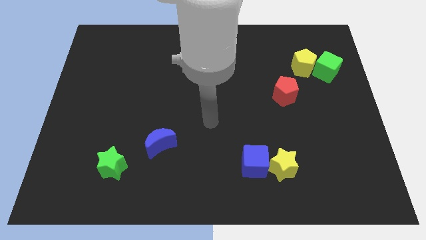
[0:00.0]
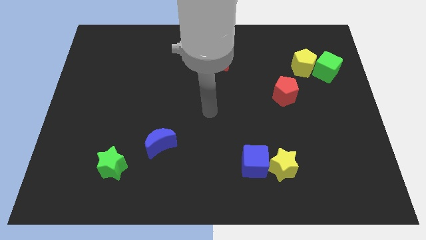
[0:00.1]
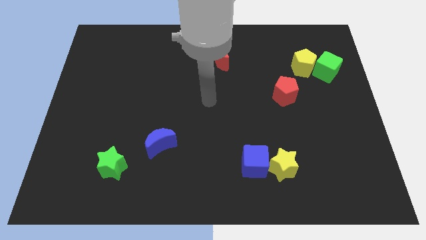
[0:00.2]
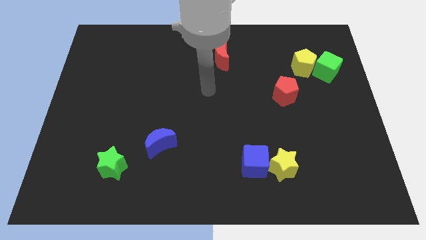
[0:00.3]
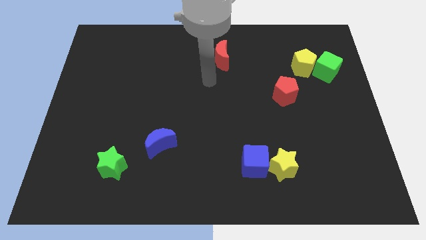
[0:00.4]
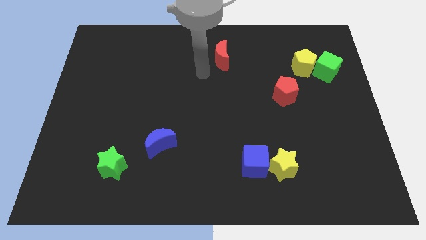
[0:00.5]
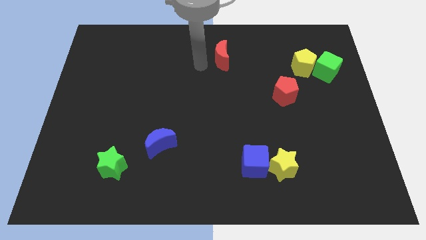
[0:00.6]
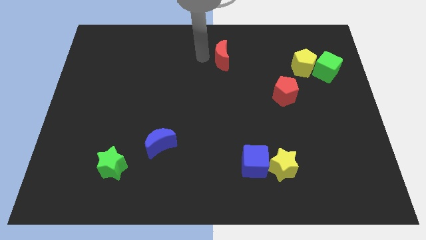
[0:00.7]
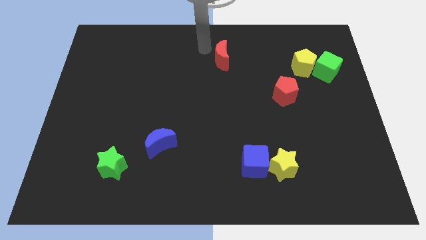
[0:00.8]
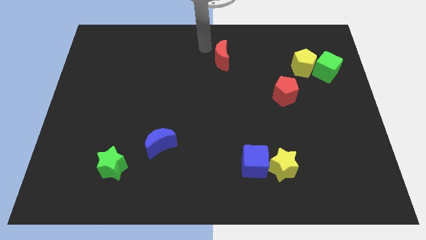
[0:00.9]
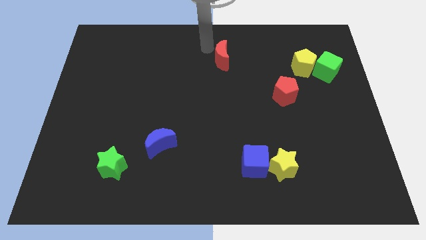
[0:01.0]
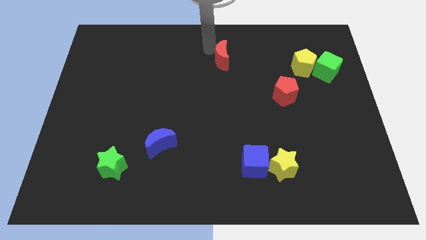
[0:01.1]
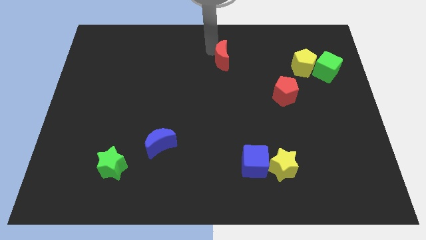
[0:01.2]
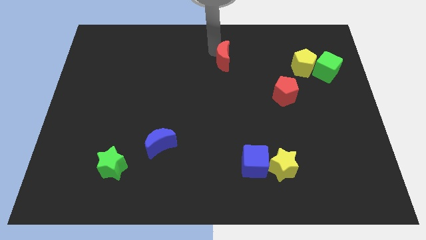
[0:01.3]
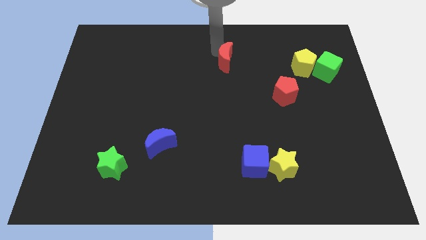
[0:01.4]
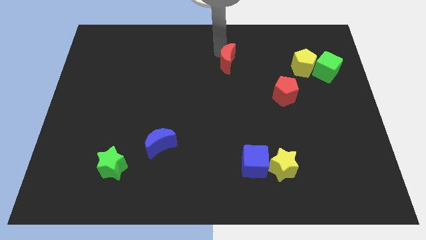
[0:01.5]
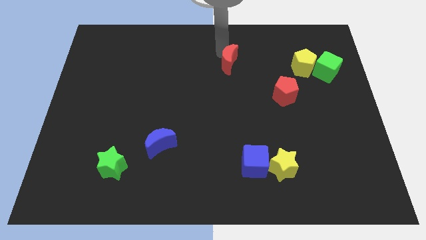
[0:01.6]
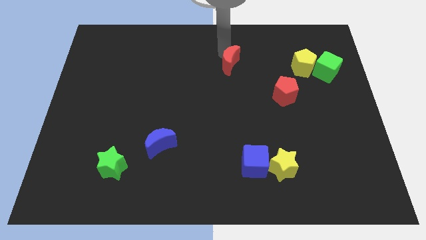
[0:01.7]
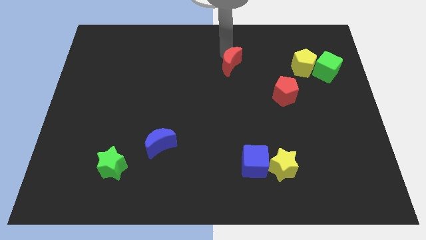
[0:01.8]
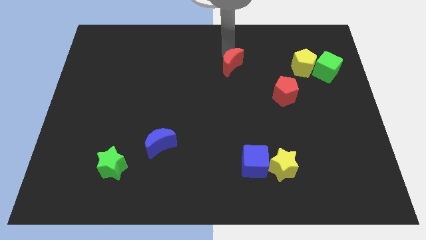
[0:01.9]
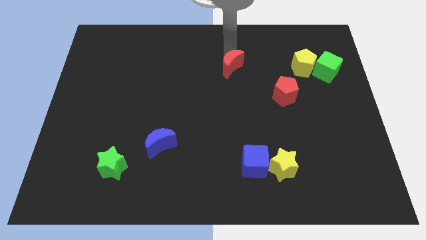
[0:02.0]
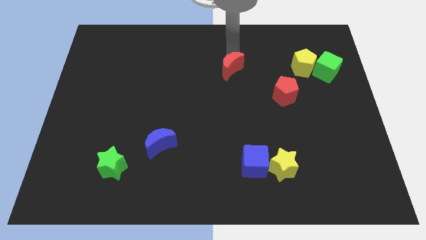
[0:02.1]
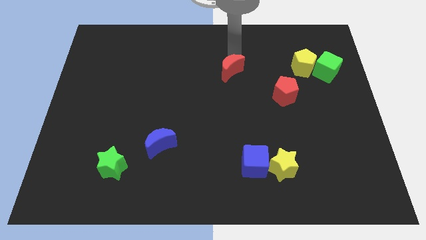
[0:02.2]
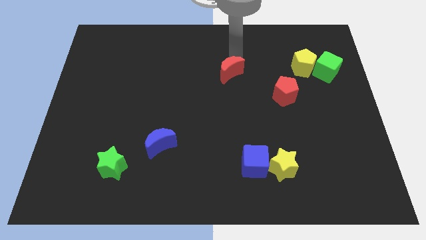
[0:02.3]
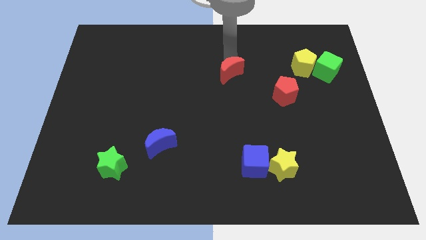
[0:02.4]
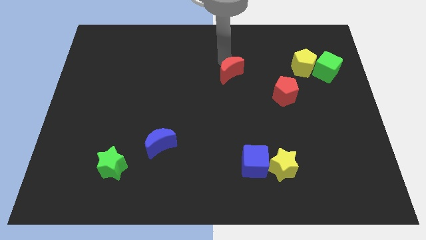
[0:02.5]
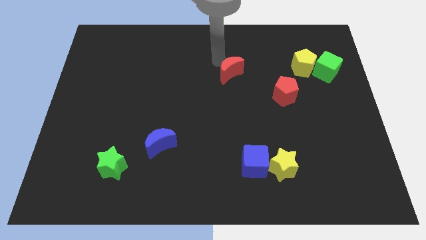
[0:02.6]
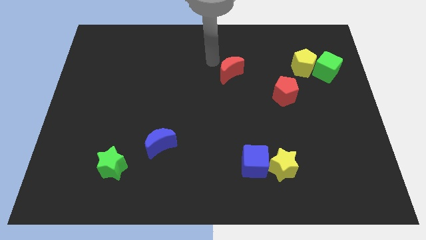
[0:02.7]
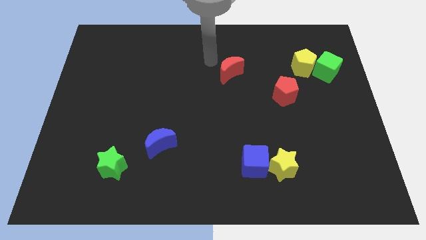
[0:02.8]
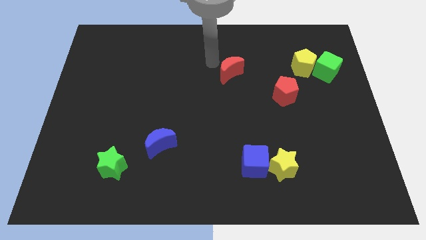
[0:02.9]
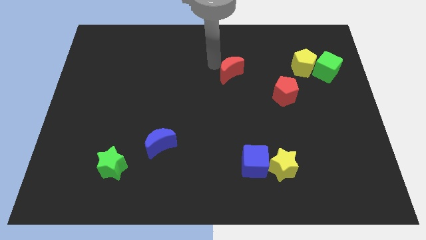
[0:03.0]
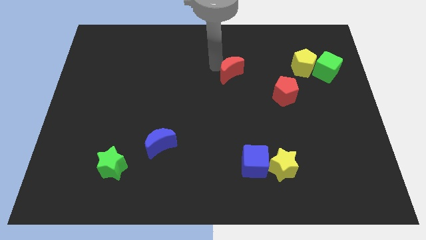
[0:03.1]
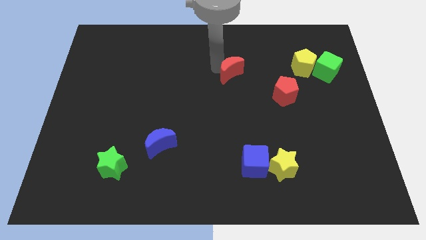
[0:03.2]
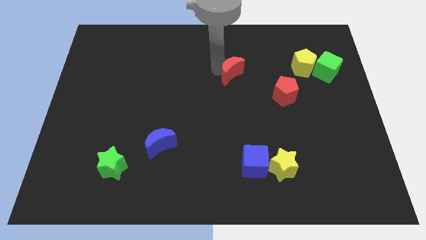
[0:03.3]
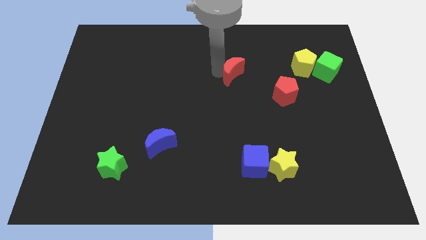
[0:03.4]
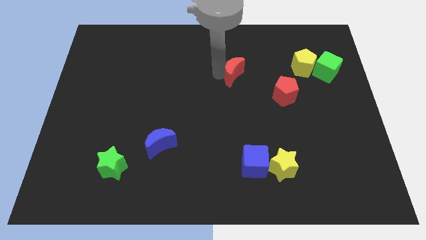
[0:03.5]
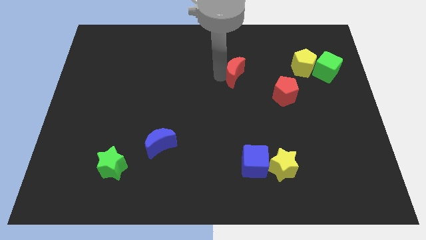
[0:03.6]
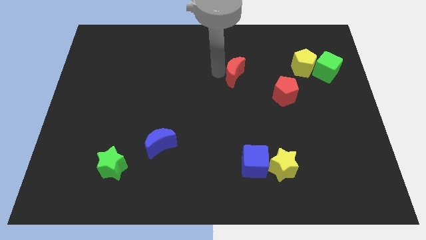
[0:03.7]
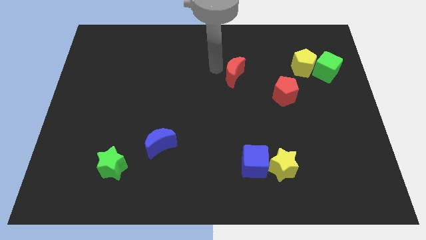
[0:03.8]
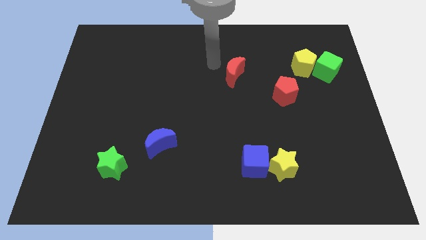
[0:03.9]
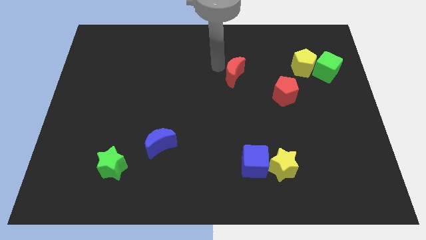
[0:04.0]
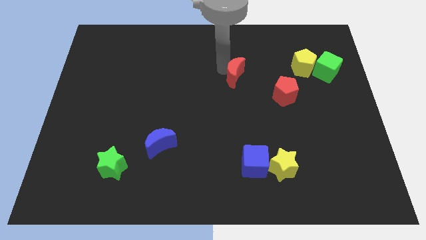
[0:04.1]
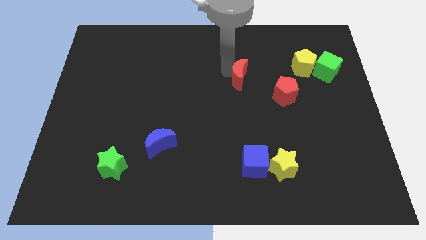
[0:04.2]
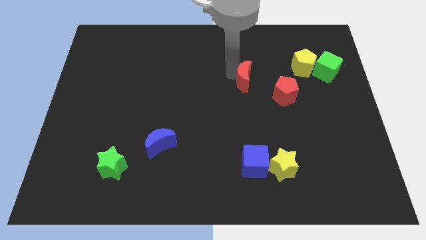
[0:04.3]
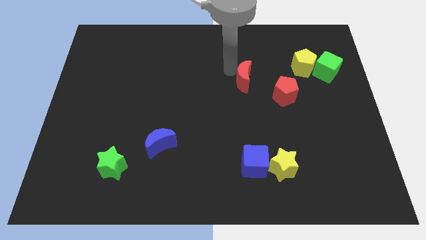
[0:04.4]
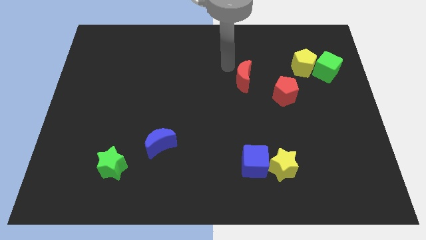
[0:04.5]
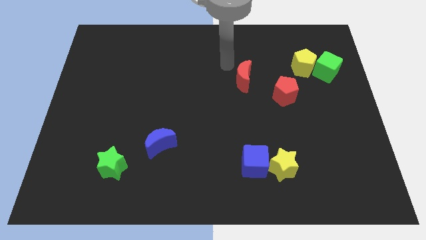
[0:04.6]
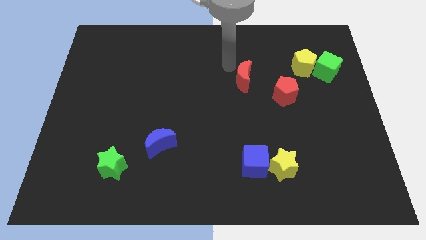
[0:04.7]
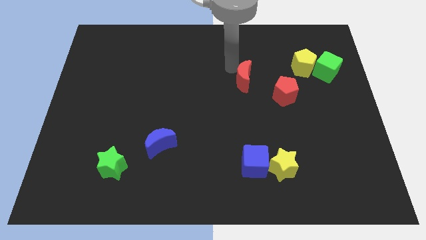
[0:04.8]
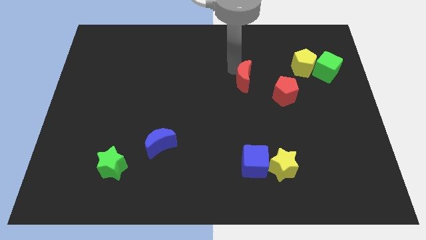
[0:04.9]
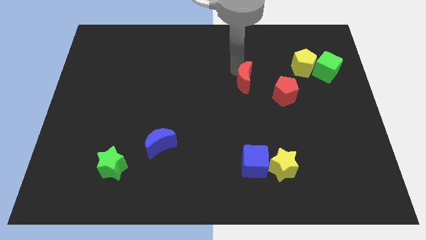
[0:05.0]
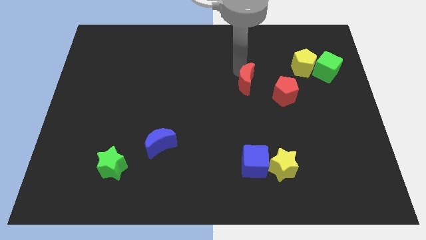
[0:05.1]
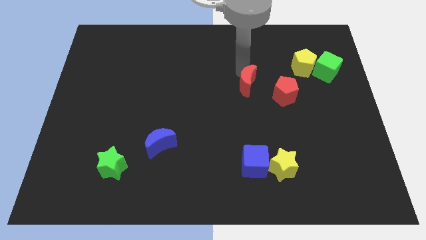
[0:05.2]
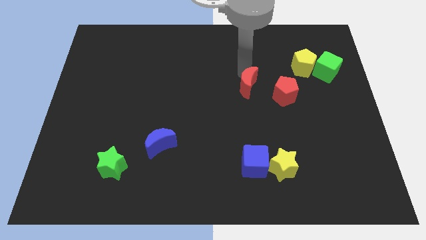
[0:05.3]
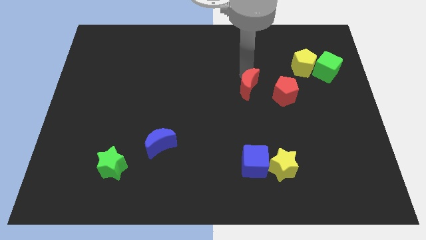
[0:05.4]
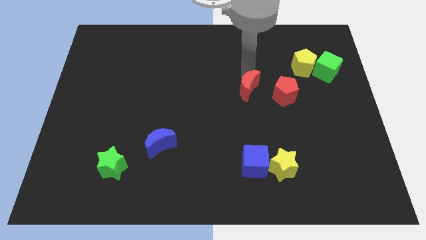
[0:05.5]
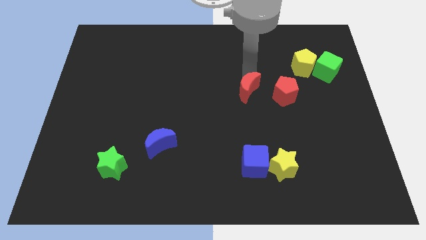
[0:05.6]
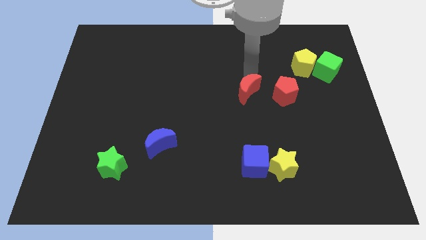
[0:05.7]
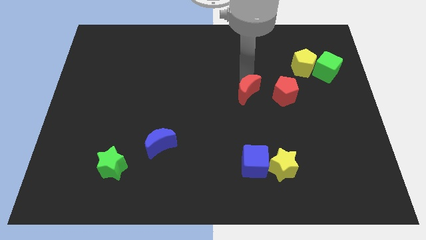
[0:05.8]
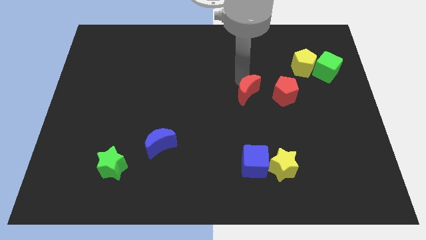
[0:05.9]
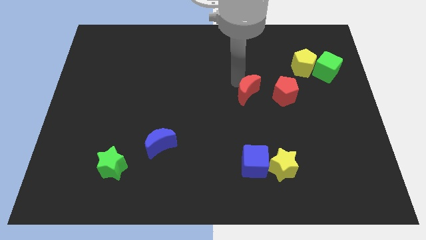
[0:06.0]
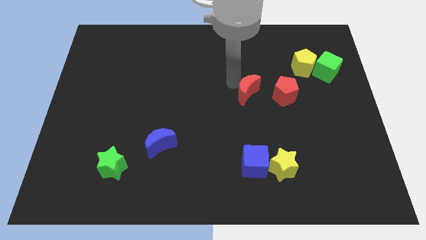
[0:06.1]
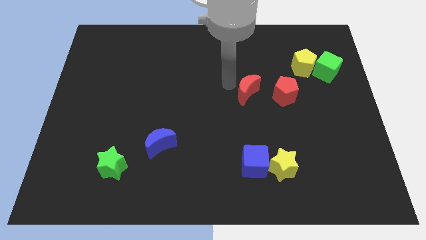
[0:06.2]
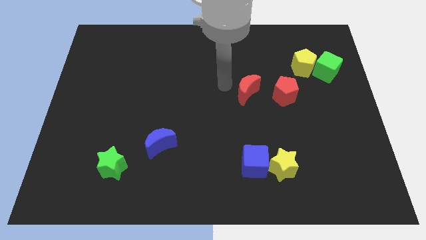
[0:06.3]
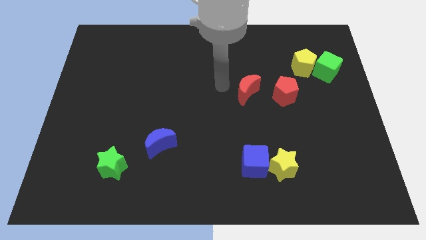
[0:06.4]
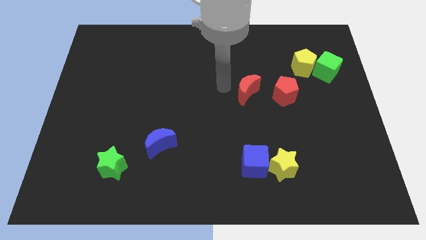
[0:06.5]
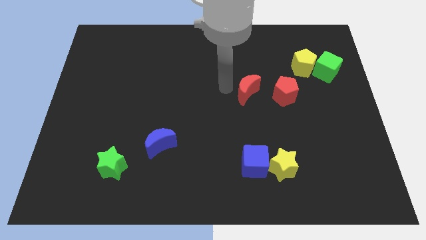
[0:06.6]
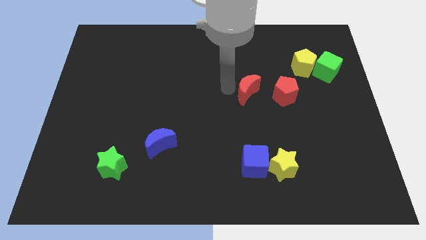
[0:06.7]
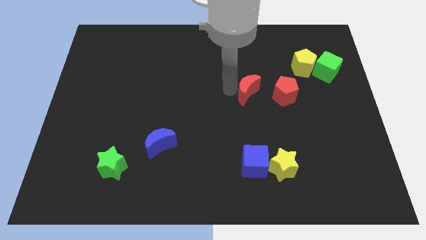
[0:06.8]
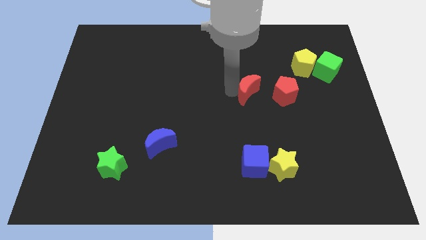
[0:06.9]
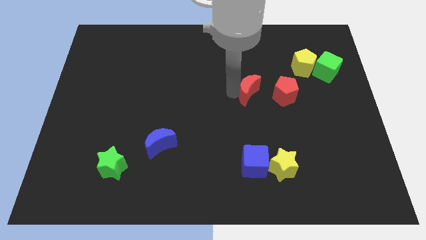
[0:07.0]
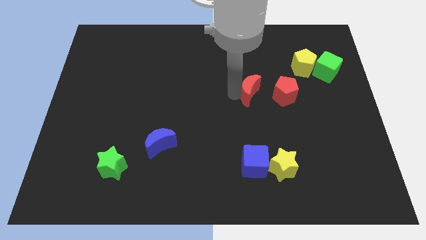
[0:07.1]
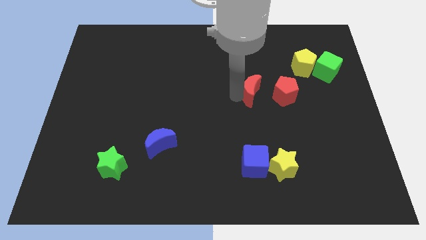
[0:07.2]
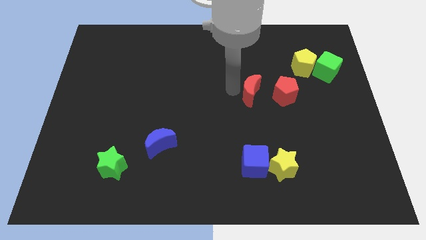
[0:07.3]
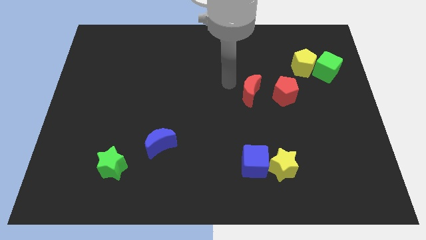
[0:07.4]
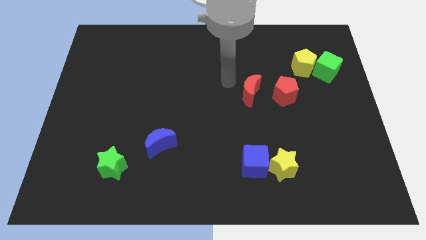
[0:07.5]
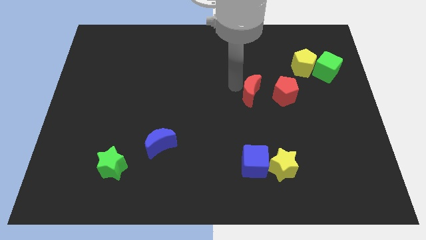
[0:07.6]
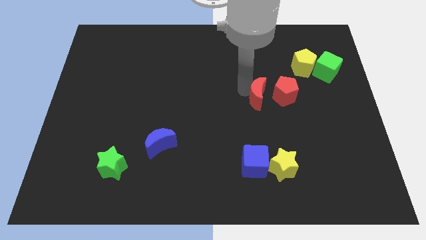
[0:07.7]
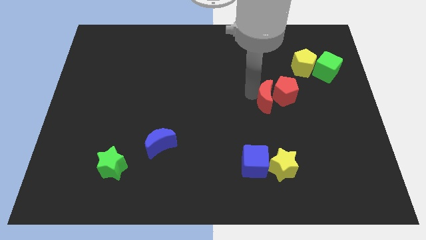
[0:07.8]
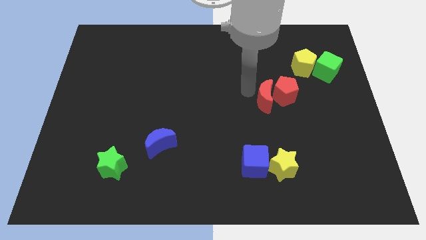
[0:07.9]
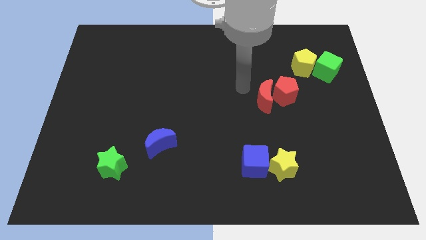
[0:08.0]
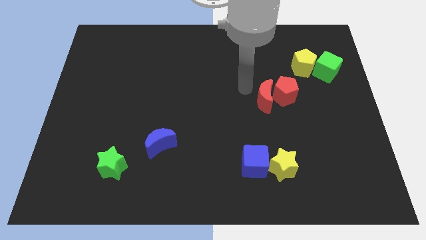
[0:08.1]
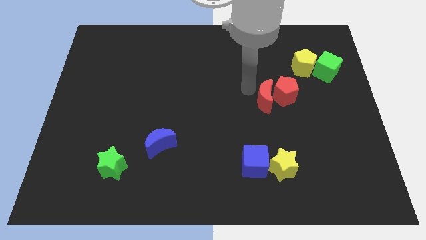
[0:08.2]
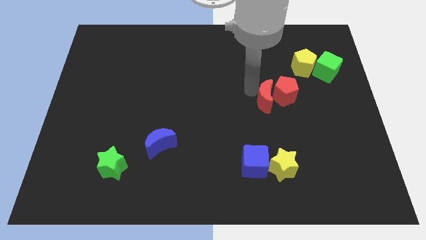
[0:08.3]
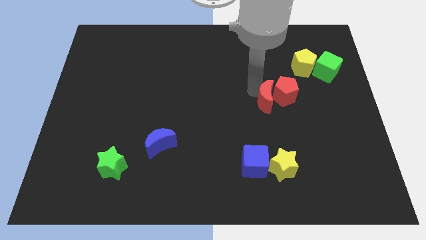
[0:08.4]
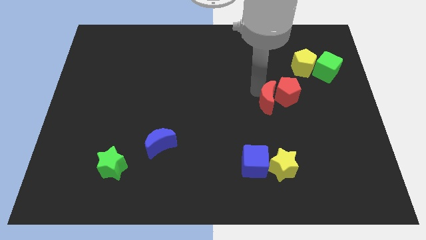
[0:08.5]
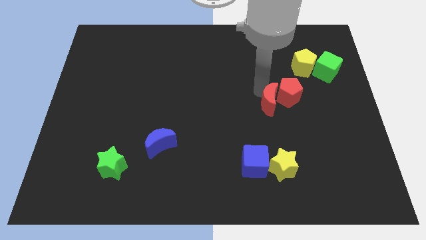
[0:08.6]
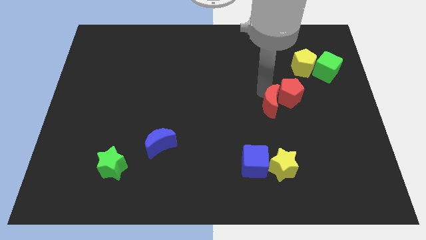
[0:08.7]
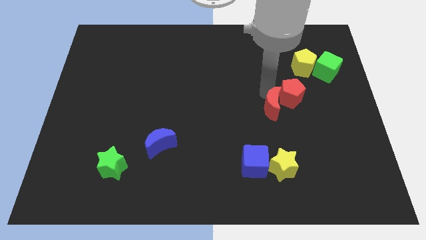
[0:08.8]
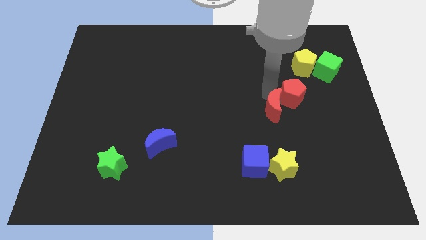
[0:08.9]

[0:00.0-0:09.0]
push the red moon diagonally down and right
